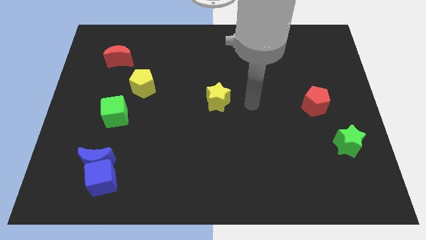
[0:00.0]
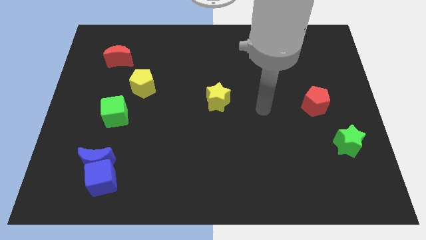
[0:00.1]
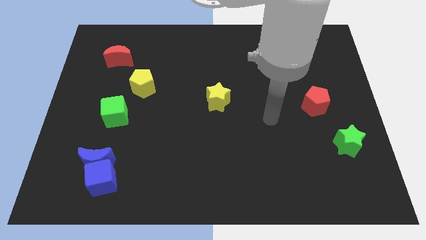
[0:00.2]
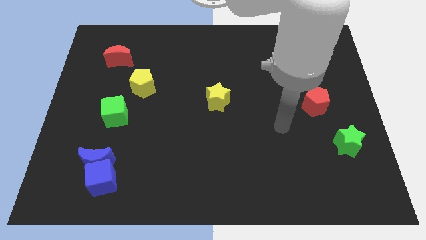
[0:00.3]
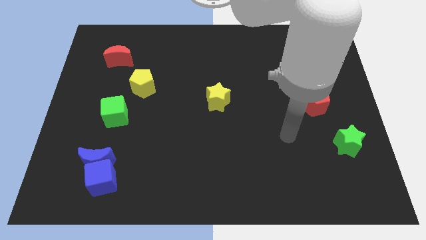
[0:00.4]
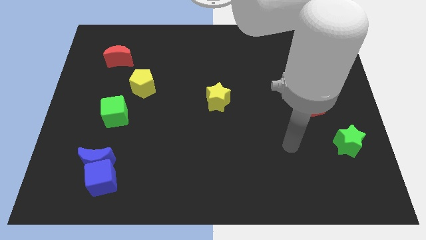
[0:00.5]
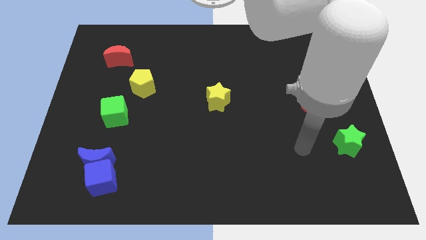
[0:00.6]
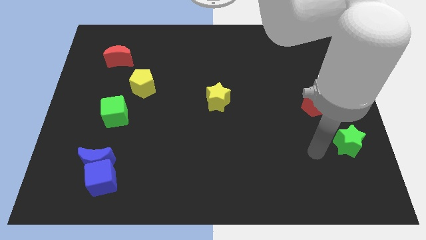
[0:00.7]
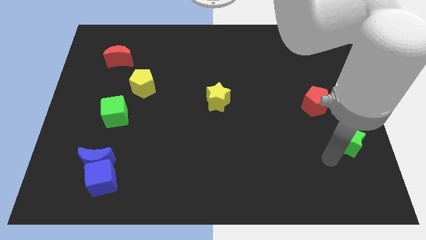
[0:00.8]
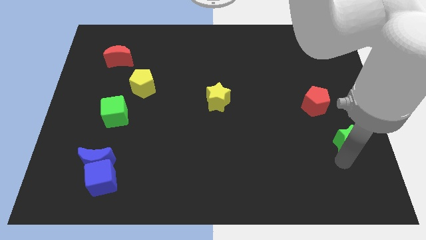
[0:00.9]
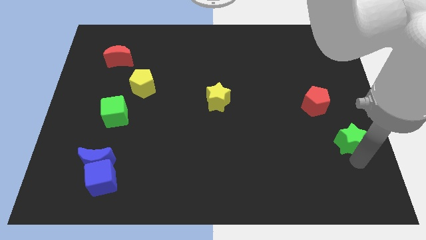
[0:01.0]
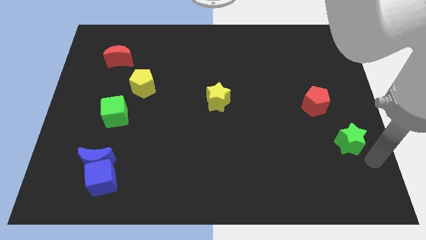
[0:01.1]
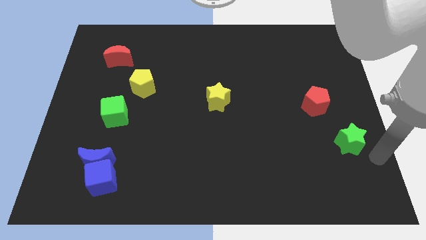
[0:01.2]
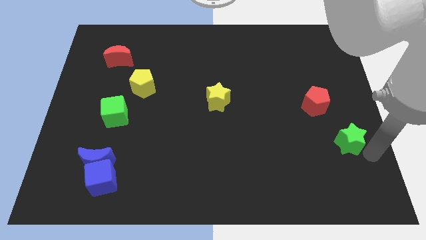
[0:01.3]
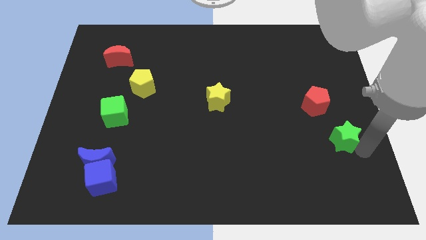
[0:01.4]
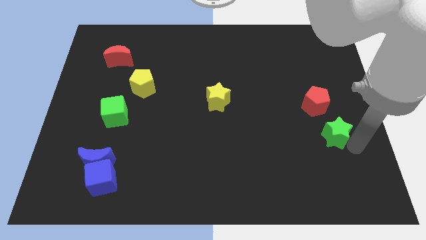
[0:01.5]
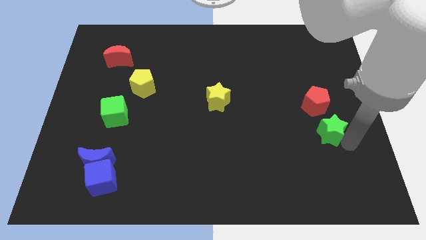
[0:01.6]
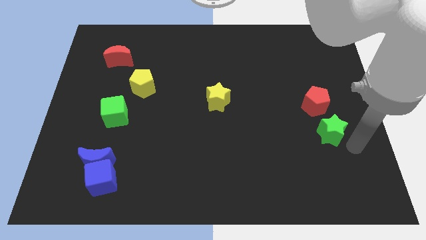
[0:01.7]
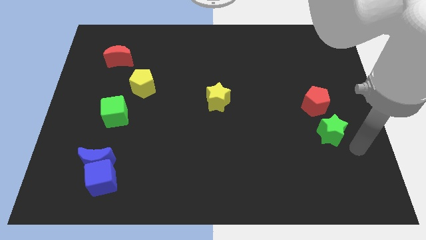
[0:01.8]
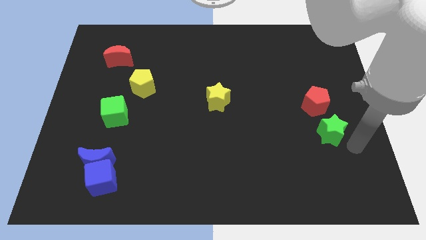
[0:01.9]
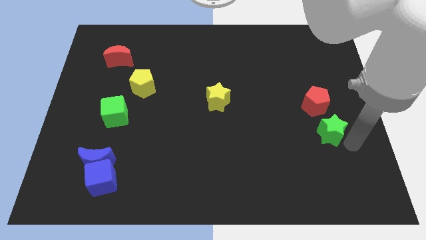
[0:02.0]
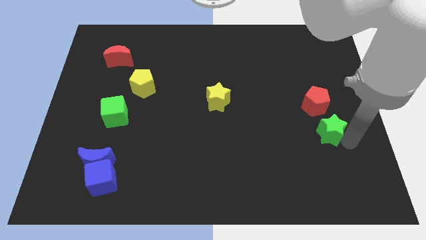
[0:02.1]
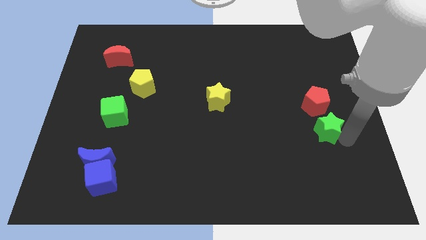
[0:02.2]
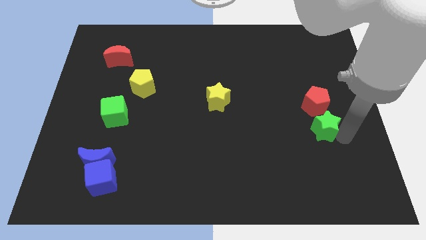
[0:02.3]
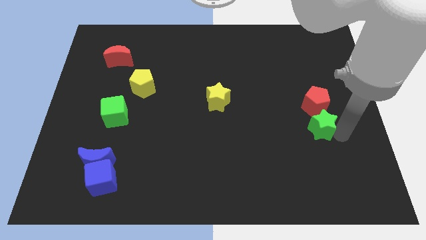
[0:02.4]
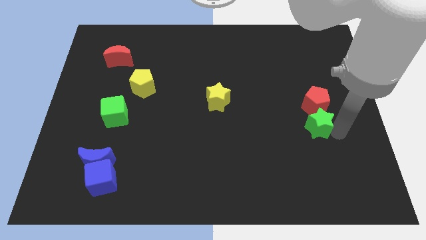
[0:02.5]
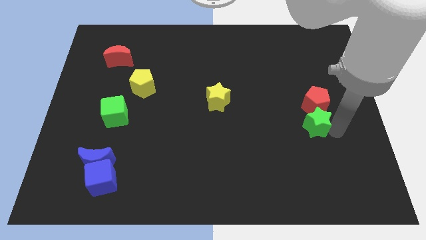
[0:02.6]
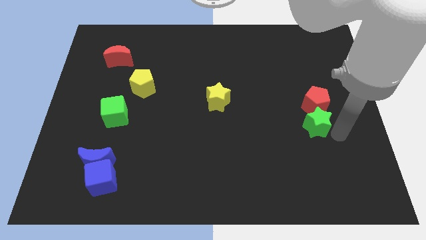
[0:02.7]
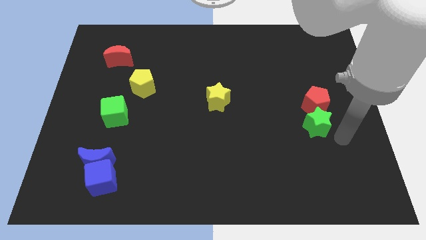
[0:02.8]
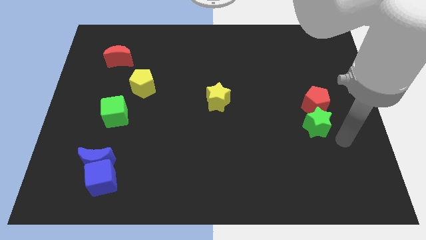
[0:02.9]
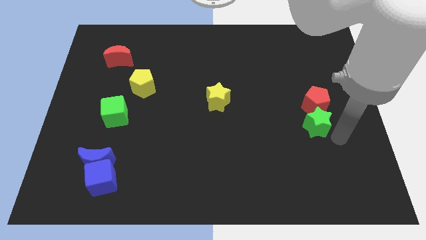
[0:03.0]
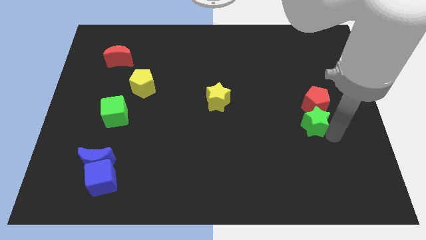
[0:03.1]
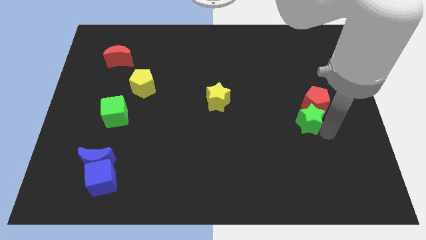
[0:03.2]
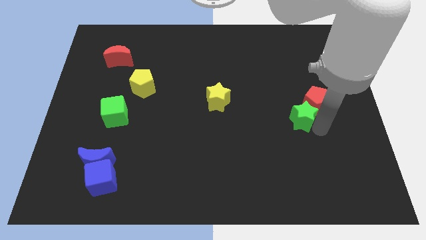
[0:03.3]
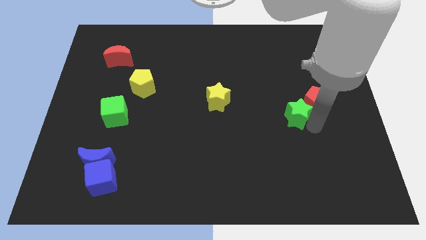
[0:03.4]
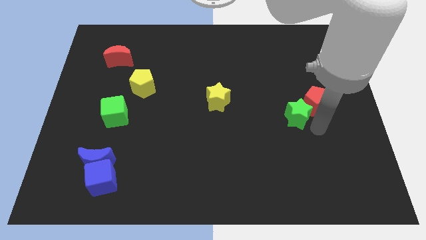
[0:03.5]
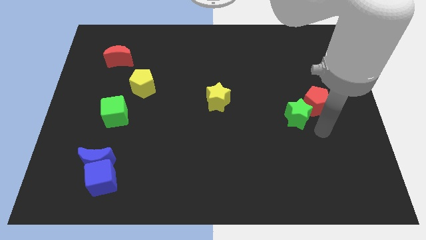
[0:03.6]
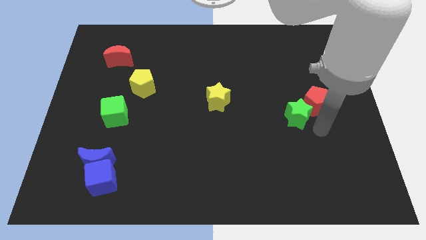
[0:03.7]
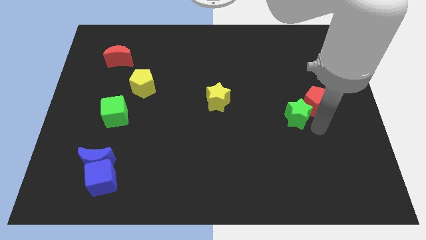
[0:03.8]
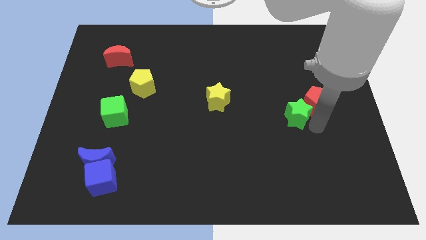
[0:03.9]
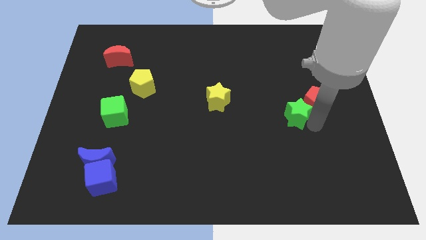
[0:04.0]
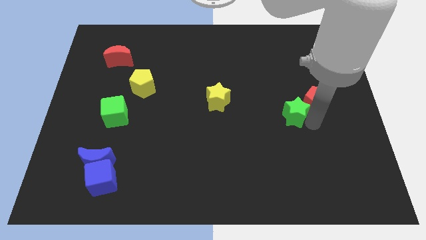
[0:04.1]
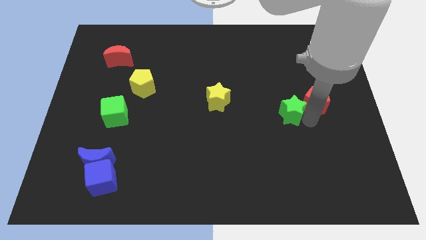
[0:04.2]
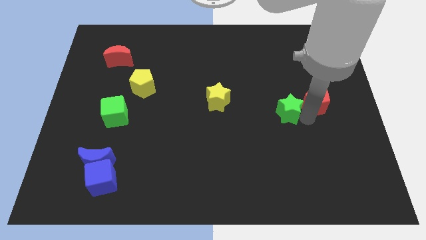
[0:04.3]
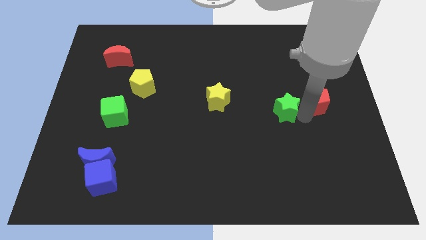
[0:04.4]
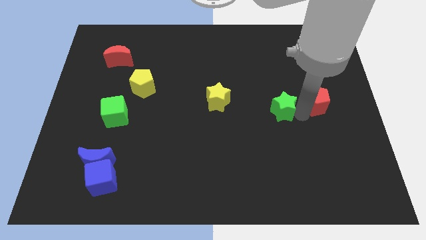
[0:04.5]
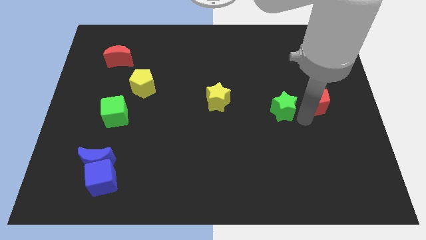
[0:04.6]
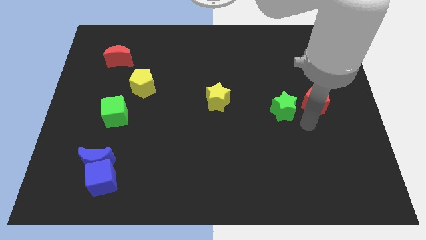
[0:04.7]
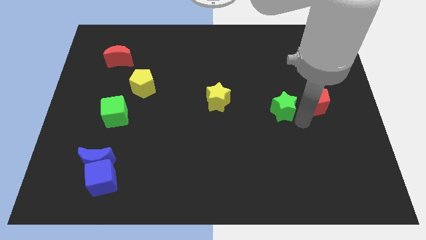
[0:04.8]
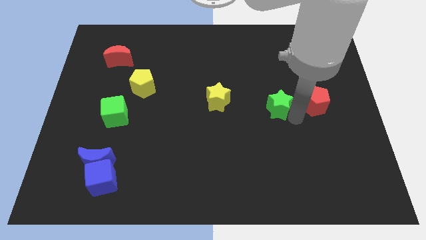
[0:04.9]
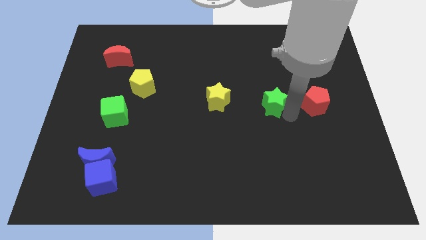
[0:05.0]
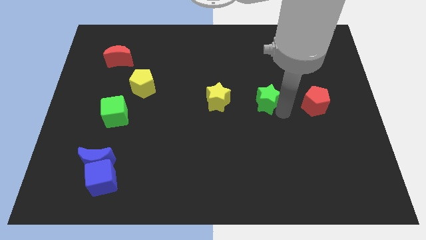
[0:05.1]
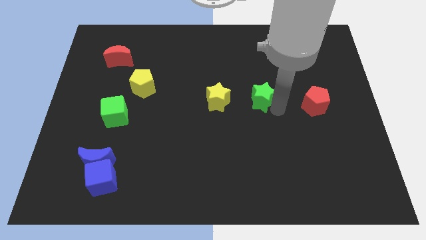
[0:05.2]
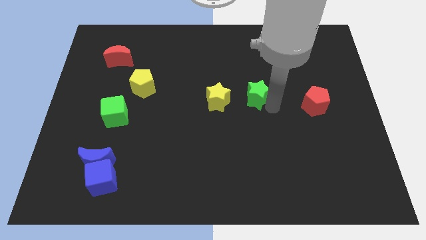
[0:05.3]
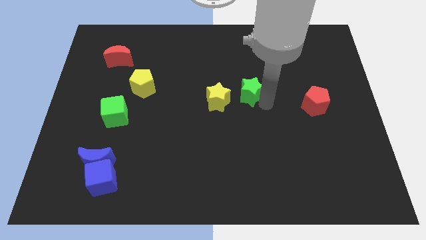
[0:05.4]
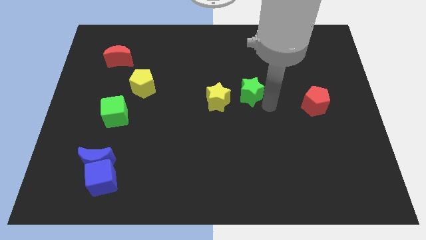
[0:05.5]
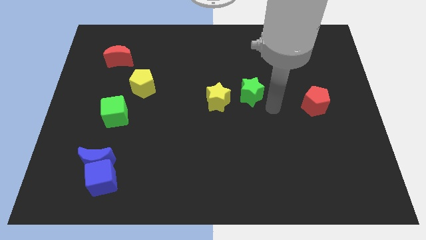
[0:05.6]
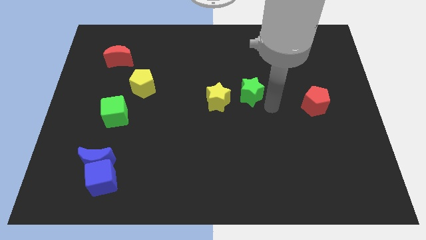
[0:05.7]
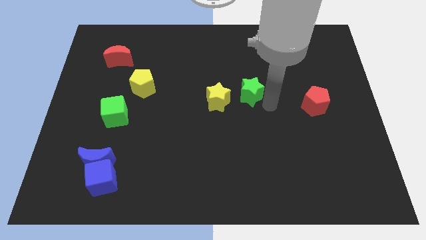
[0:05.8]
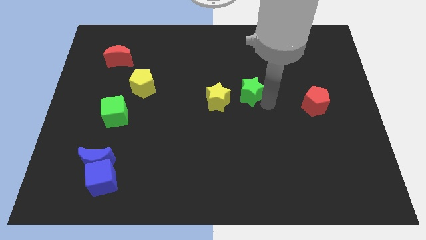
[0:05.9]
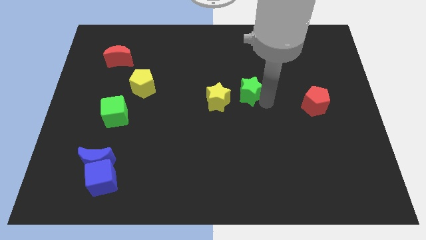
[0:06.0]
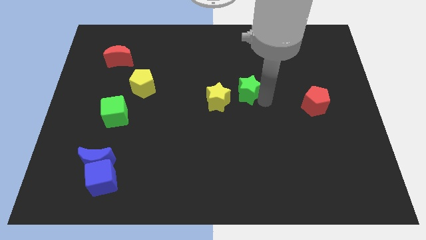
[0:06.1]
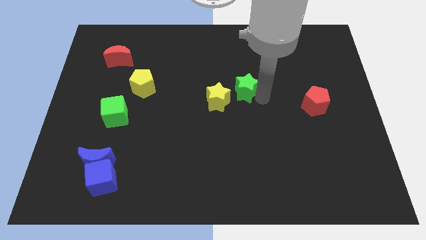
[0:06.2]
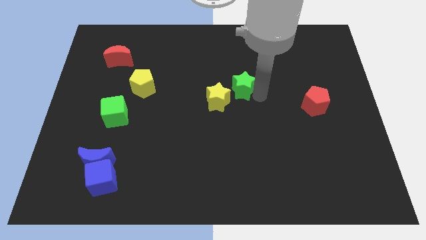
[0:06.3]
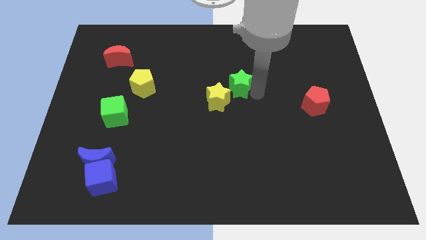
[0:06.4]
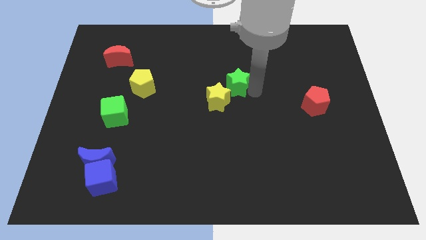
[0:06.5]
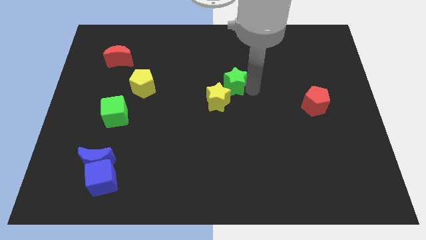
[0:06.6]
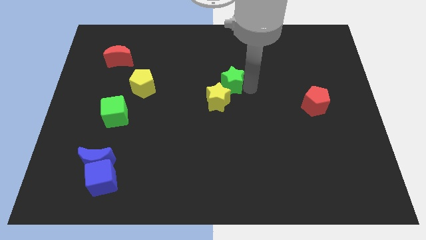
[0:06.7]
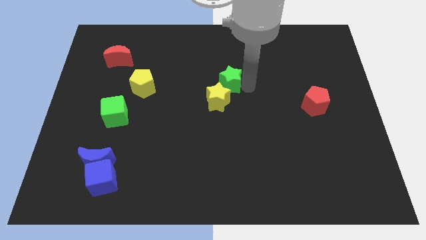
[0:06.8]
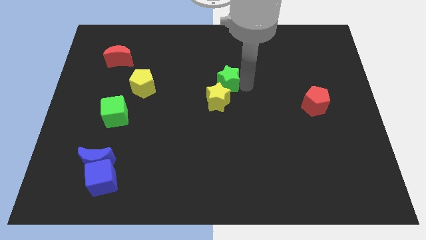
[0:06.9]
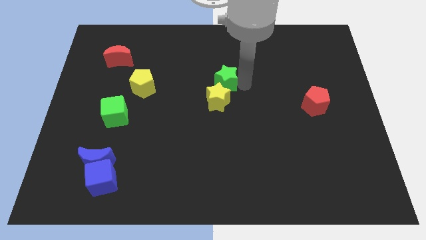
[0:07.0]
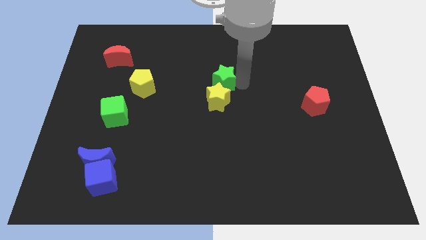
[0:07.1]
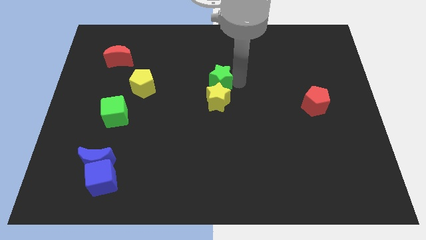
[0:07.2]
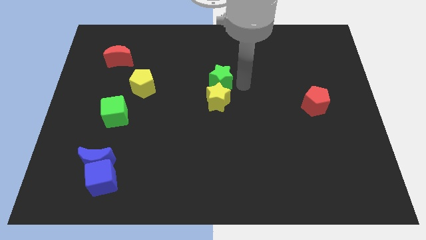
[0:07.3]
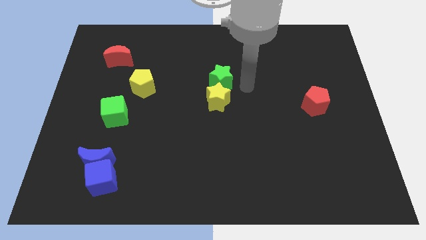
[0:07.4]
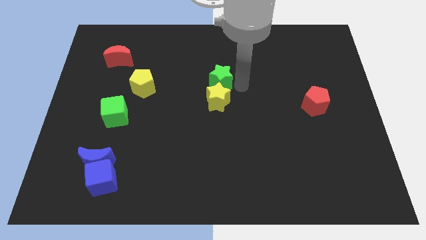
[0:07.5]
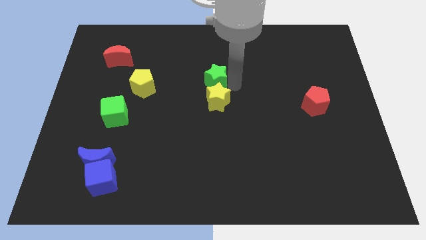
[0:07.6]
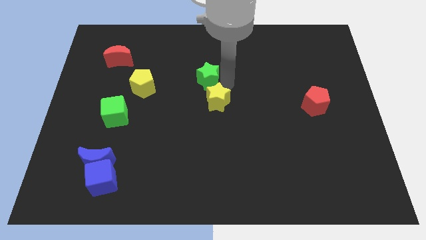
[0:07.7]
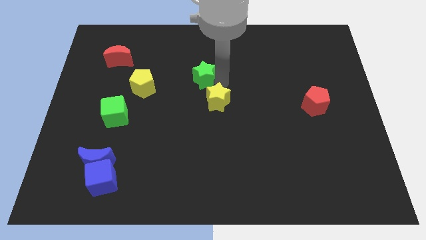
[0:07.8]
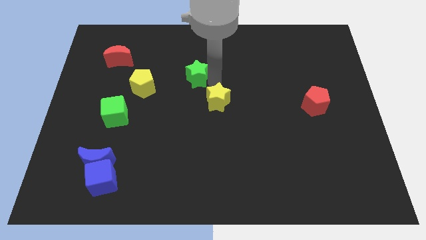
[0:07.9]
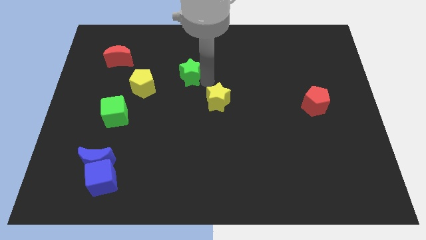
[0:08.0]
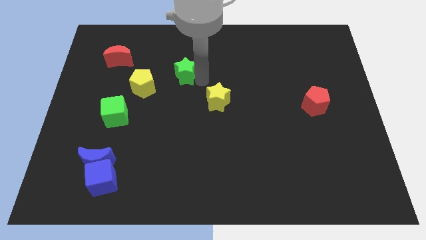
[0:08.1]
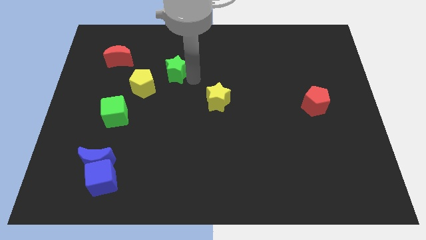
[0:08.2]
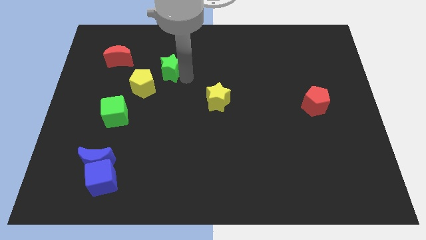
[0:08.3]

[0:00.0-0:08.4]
move the green star right of the red moon
